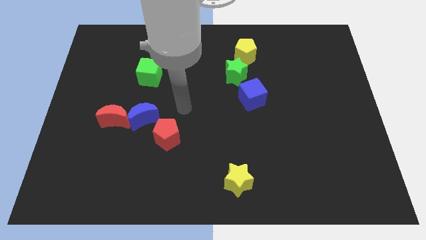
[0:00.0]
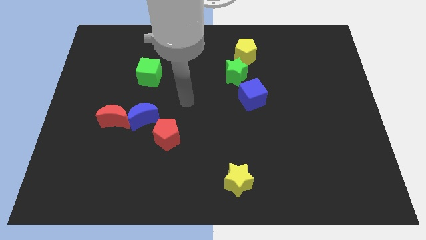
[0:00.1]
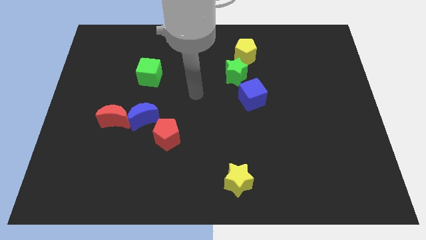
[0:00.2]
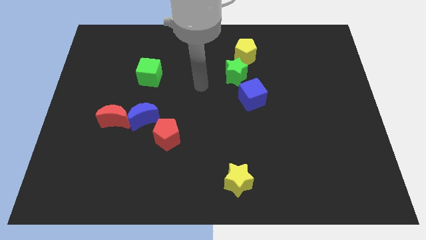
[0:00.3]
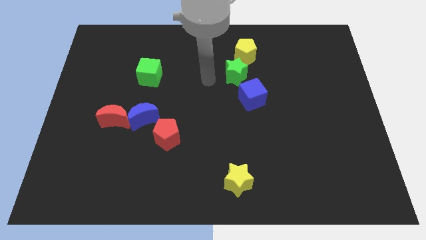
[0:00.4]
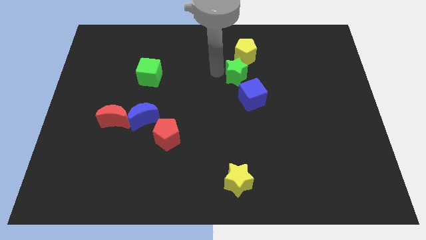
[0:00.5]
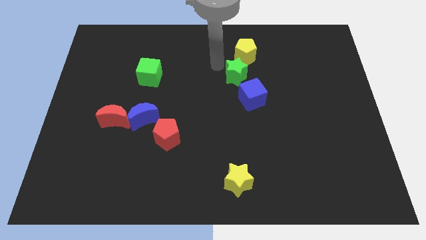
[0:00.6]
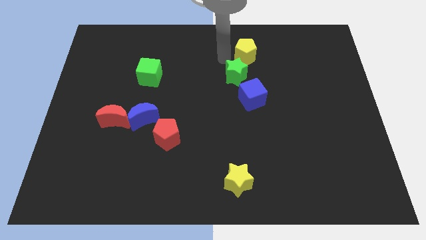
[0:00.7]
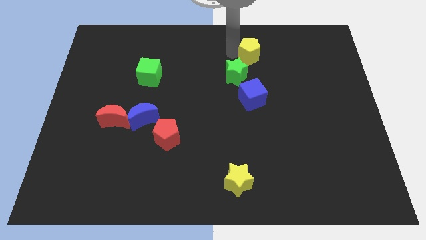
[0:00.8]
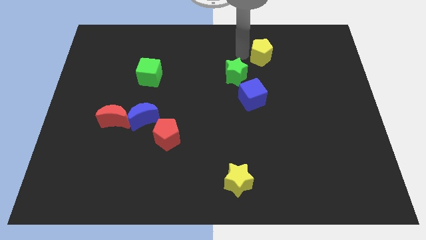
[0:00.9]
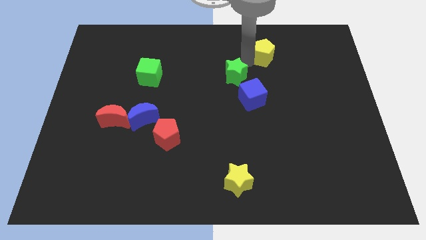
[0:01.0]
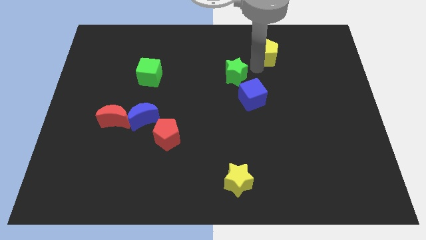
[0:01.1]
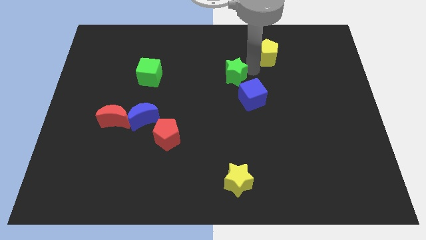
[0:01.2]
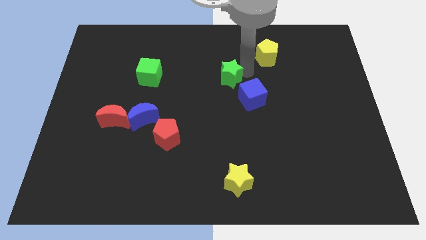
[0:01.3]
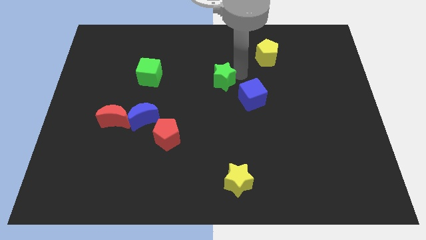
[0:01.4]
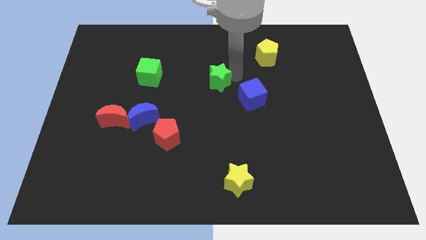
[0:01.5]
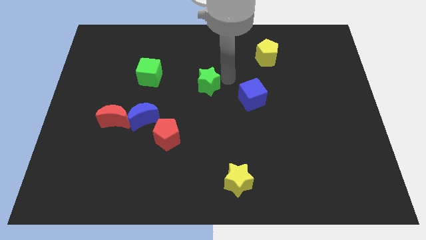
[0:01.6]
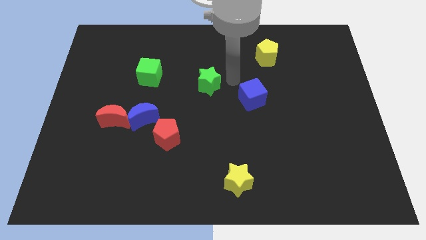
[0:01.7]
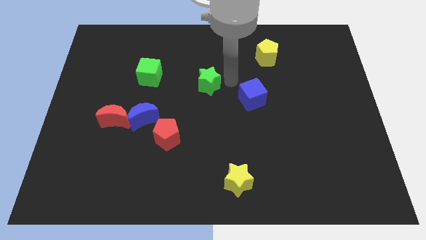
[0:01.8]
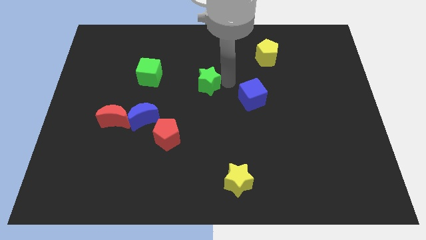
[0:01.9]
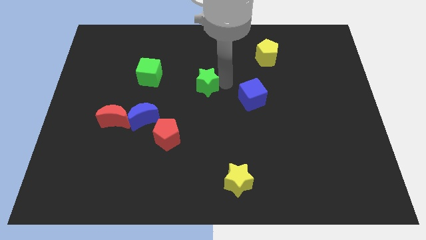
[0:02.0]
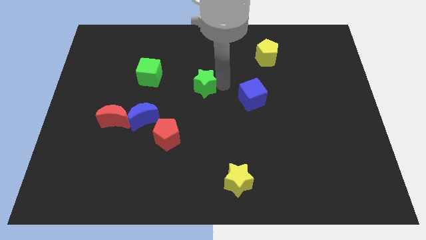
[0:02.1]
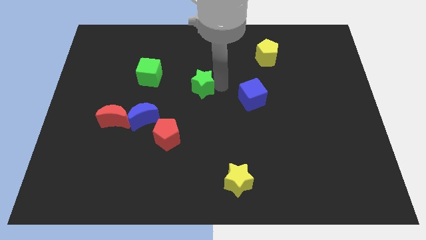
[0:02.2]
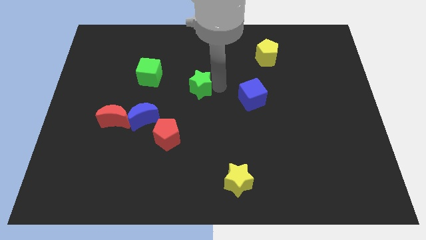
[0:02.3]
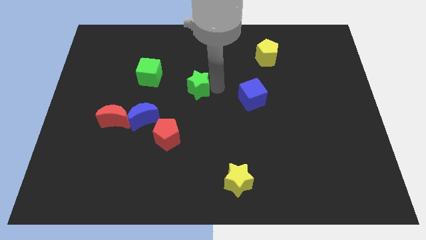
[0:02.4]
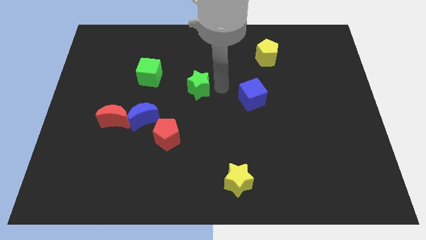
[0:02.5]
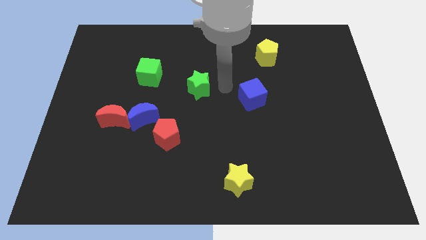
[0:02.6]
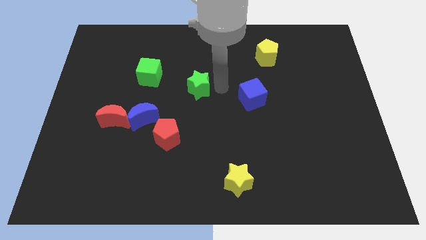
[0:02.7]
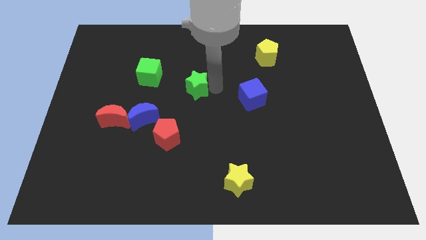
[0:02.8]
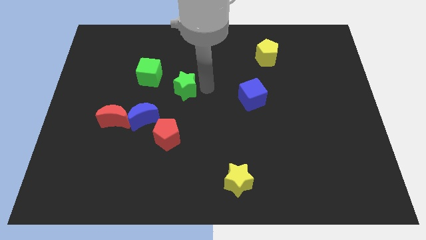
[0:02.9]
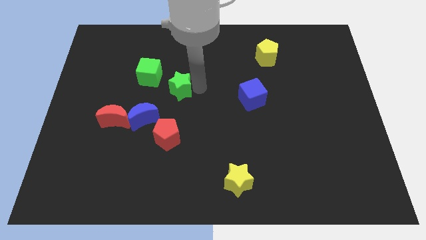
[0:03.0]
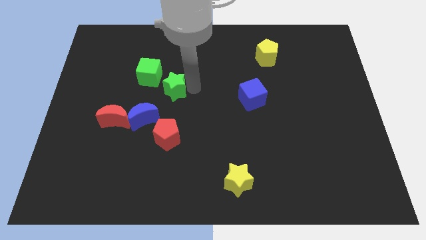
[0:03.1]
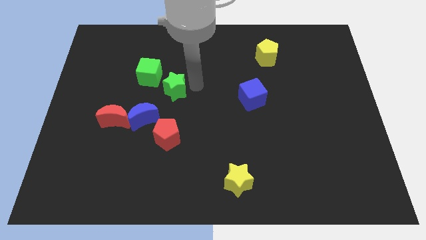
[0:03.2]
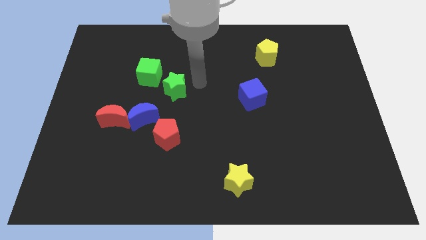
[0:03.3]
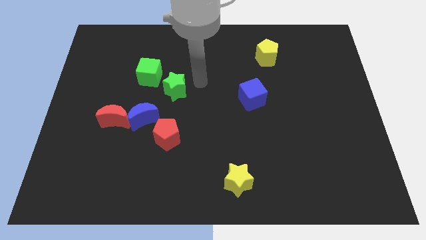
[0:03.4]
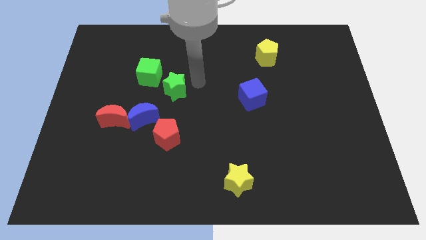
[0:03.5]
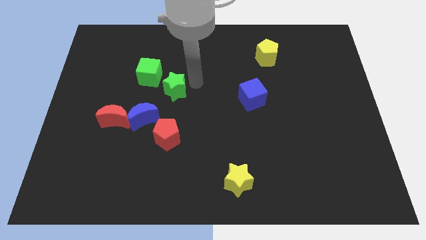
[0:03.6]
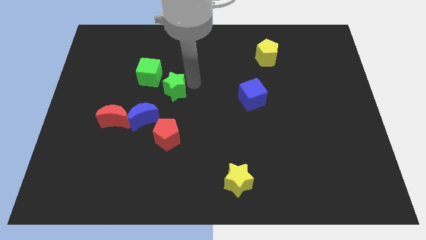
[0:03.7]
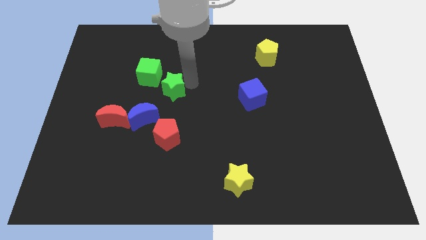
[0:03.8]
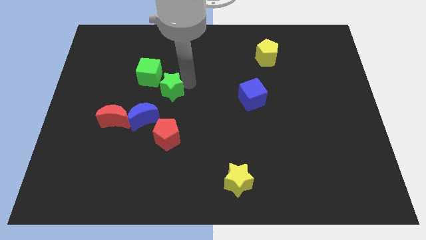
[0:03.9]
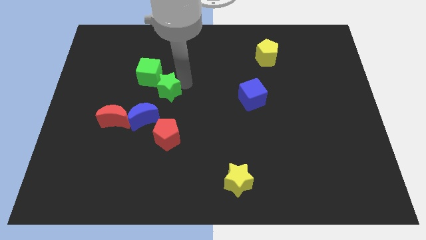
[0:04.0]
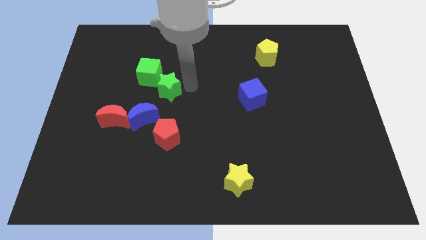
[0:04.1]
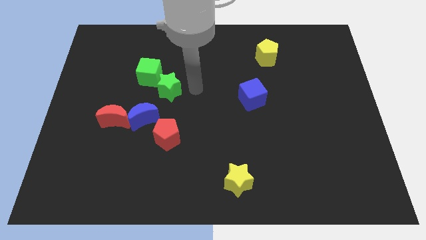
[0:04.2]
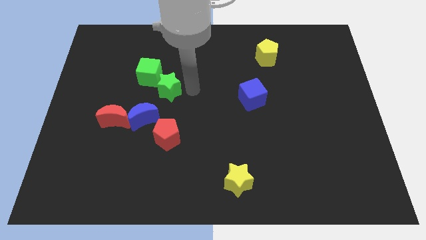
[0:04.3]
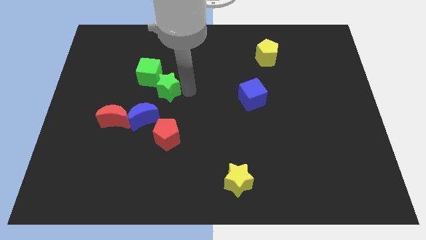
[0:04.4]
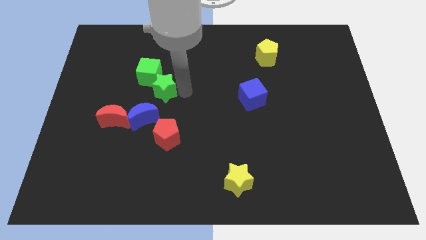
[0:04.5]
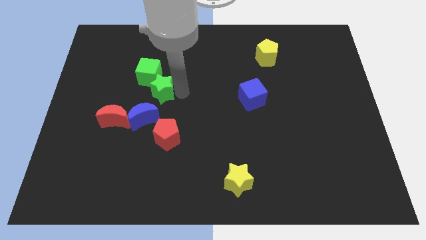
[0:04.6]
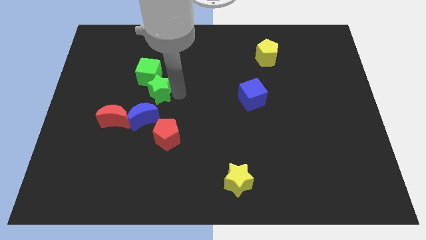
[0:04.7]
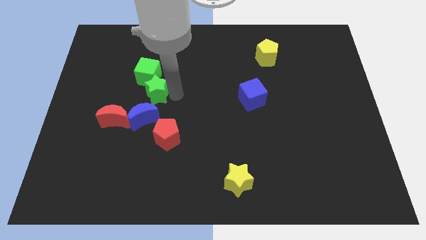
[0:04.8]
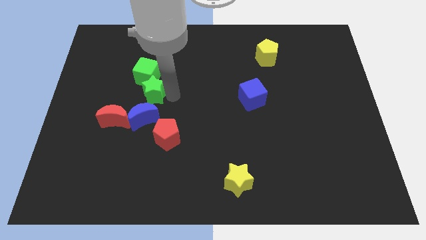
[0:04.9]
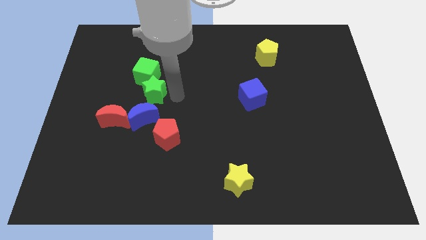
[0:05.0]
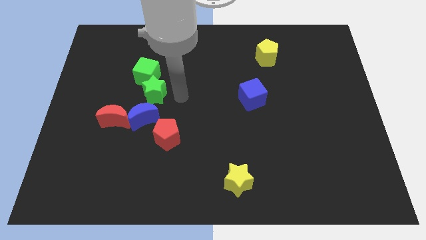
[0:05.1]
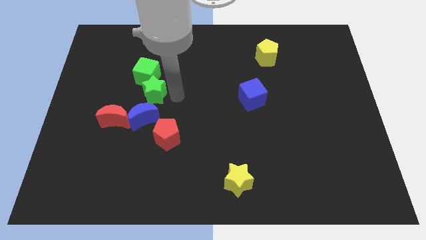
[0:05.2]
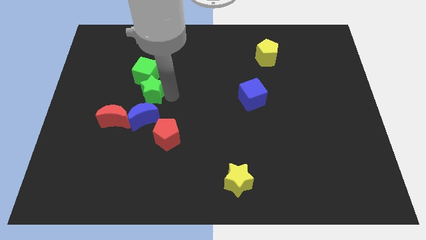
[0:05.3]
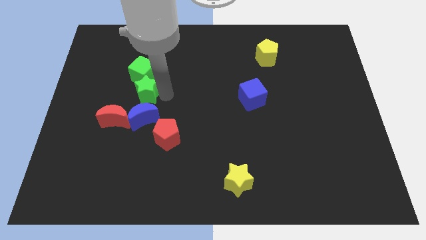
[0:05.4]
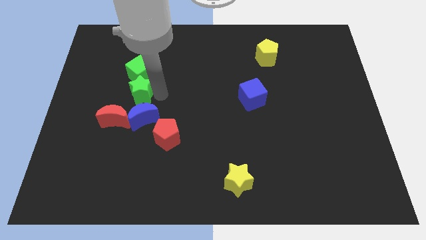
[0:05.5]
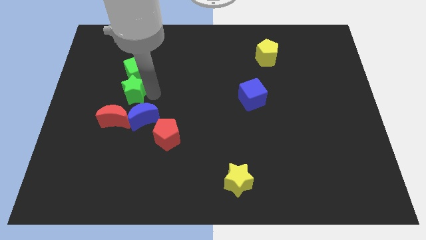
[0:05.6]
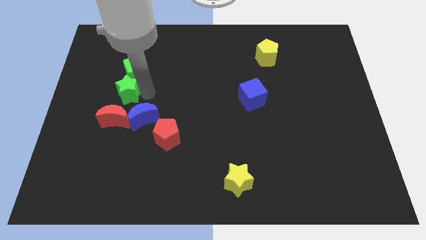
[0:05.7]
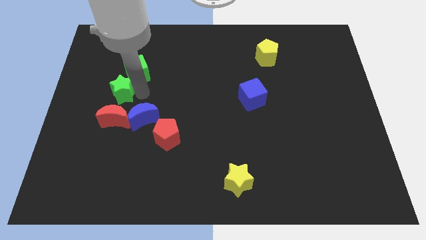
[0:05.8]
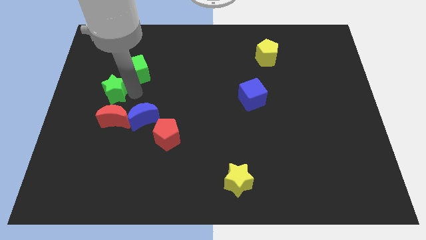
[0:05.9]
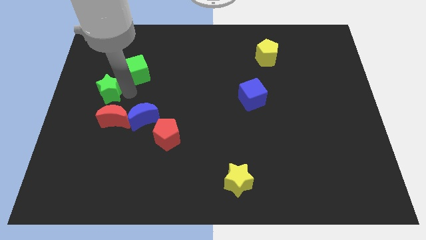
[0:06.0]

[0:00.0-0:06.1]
put the green star to the left side
